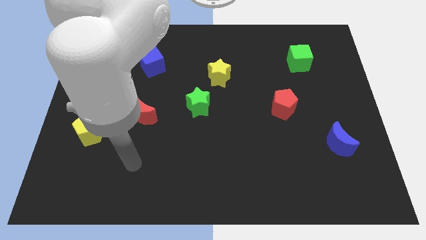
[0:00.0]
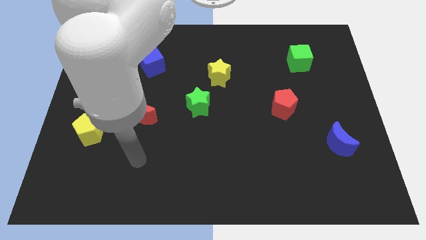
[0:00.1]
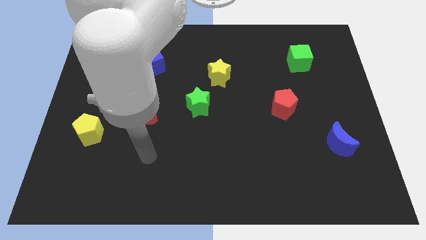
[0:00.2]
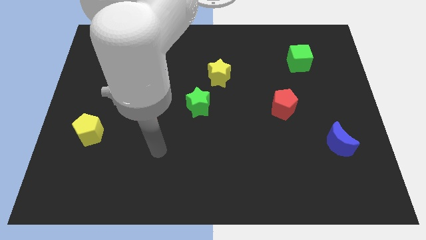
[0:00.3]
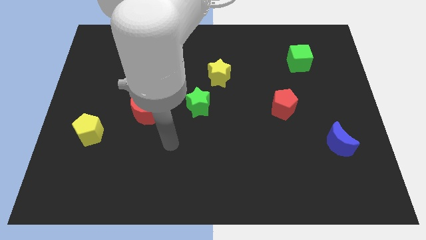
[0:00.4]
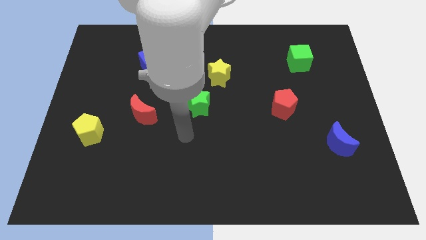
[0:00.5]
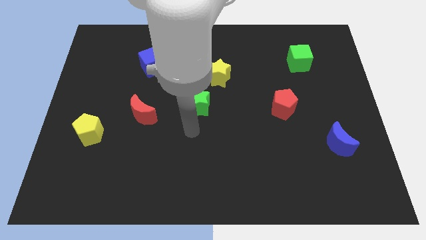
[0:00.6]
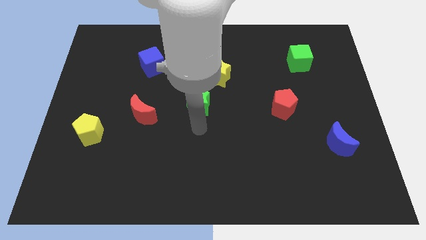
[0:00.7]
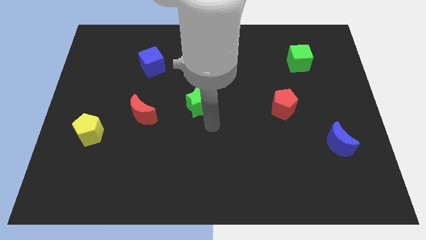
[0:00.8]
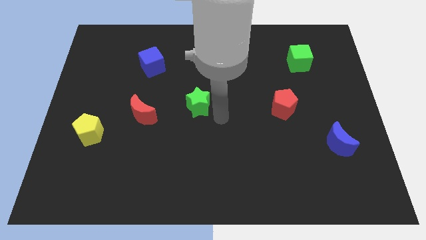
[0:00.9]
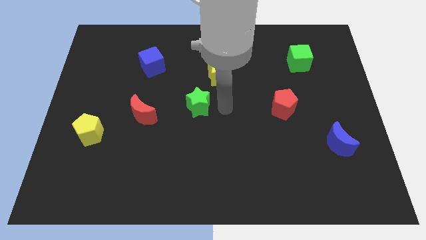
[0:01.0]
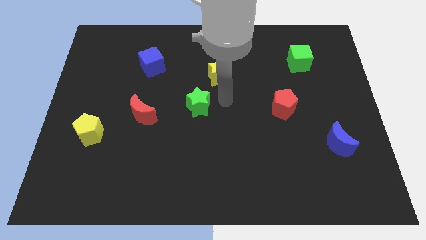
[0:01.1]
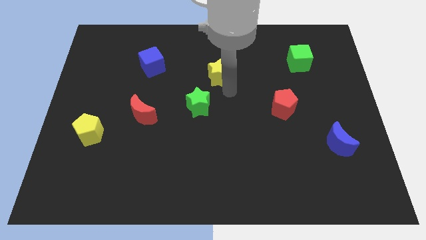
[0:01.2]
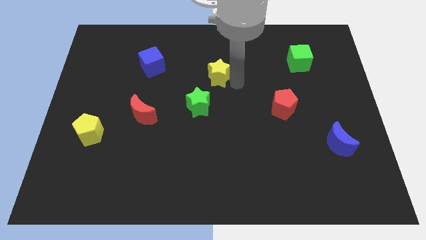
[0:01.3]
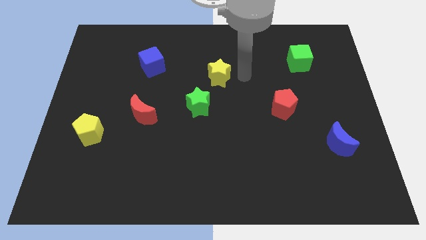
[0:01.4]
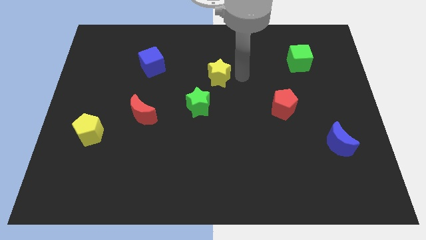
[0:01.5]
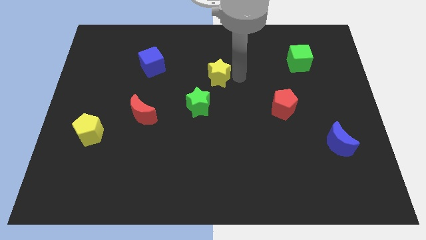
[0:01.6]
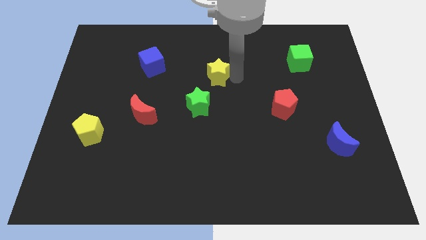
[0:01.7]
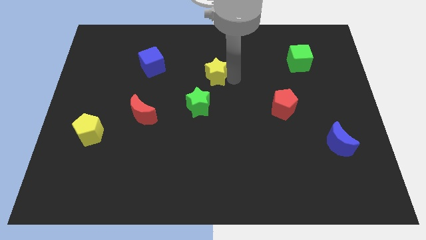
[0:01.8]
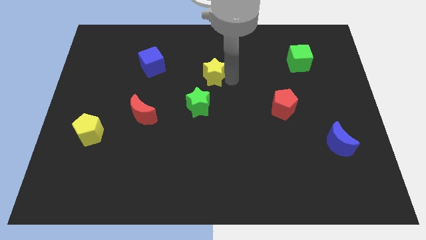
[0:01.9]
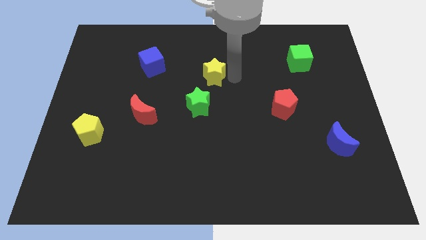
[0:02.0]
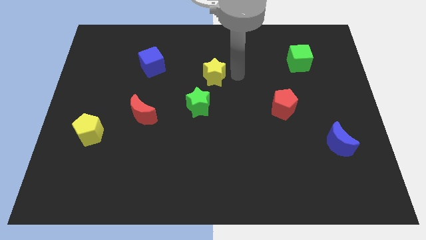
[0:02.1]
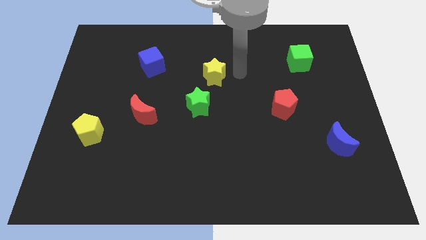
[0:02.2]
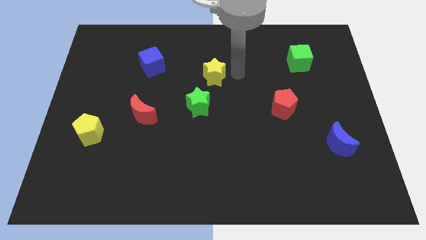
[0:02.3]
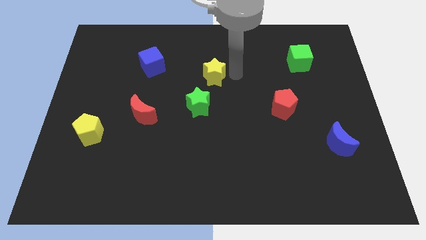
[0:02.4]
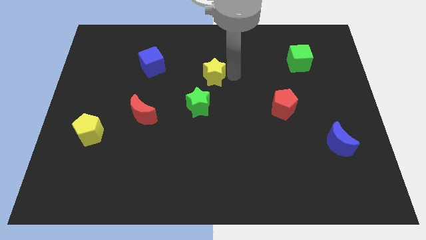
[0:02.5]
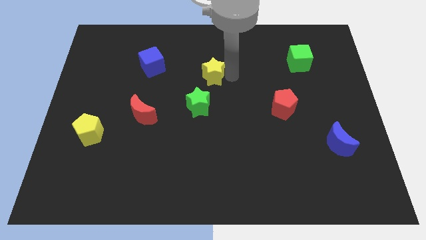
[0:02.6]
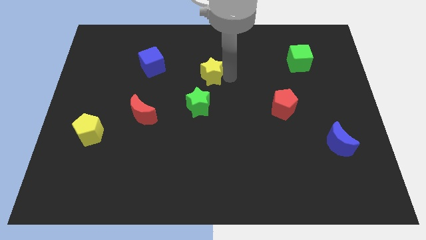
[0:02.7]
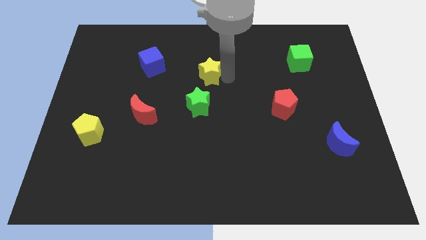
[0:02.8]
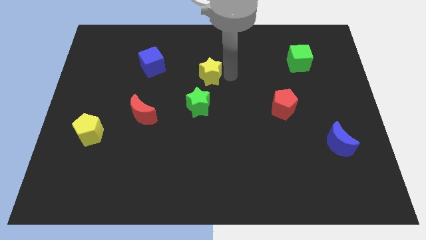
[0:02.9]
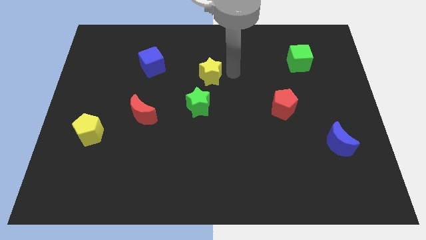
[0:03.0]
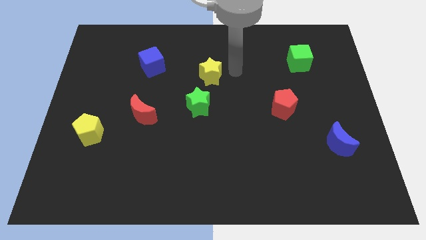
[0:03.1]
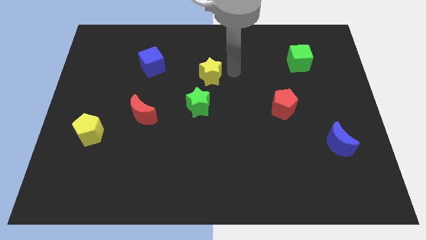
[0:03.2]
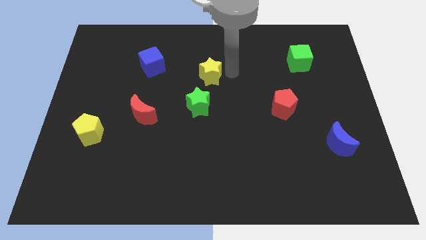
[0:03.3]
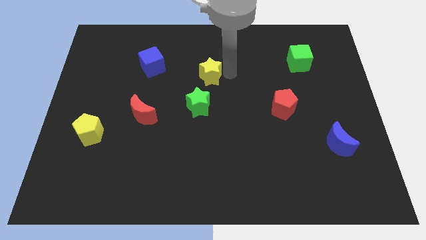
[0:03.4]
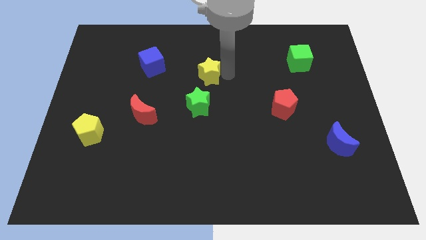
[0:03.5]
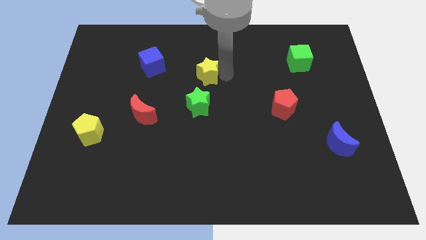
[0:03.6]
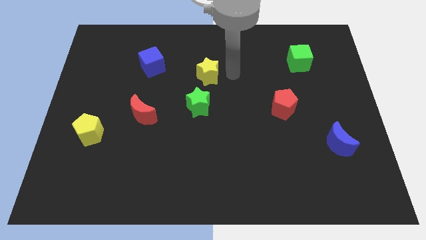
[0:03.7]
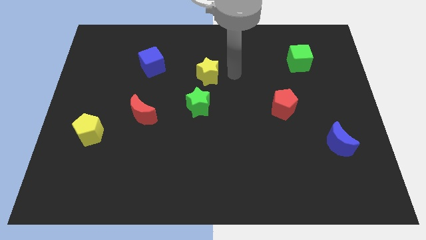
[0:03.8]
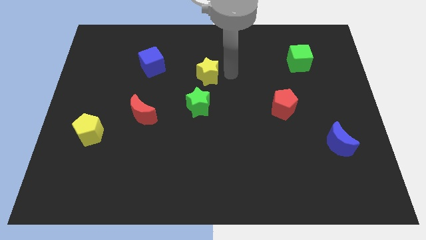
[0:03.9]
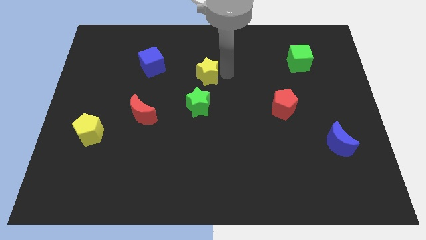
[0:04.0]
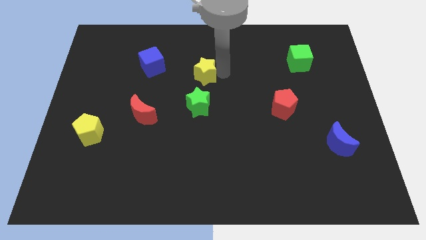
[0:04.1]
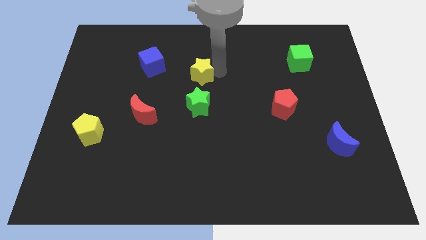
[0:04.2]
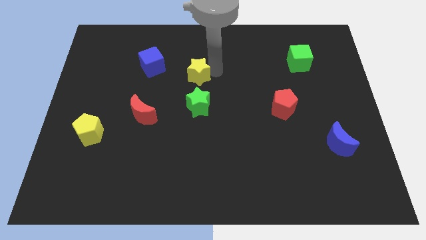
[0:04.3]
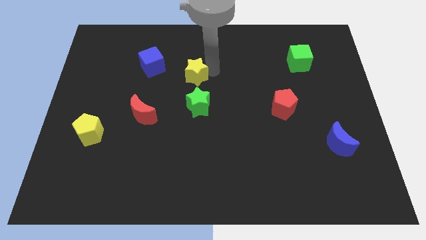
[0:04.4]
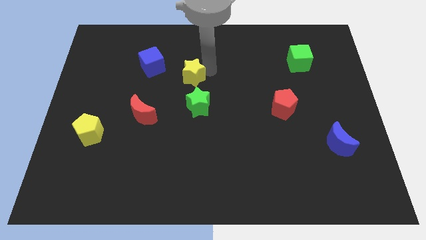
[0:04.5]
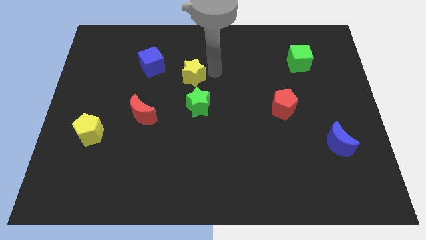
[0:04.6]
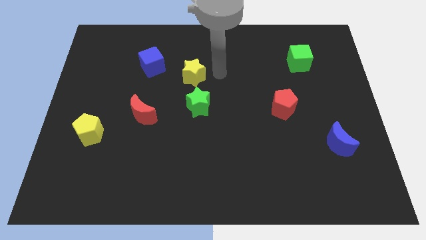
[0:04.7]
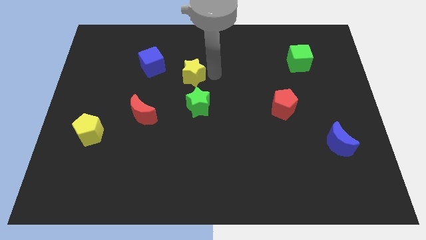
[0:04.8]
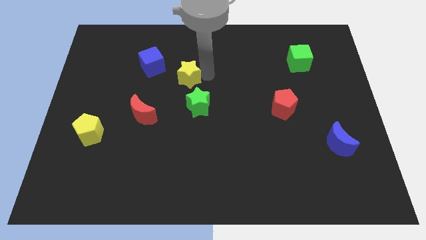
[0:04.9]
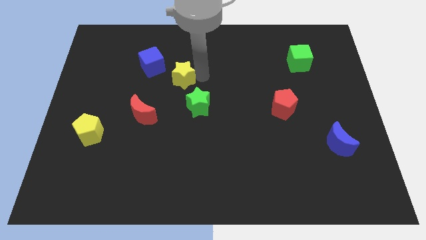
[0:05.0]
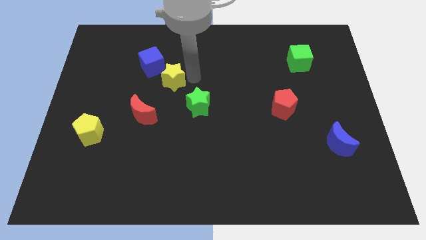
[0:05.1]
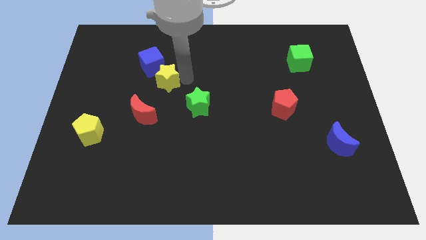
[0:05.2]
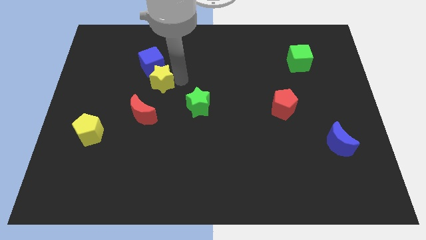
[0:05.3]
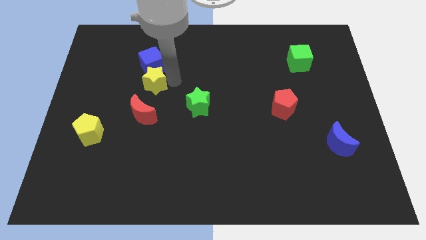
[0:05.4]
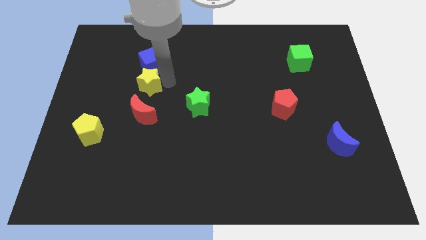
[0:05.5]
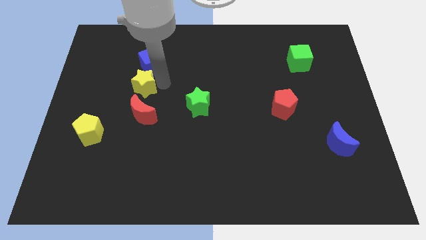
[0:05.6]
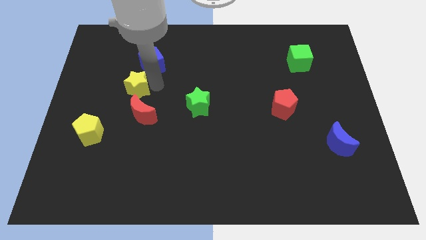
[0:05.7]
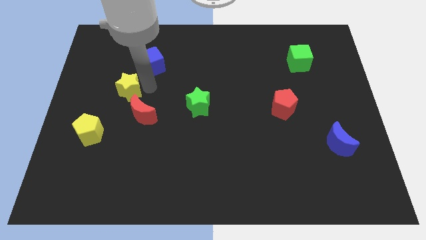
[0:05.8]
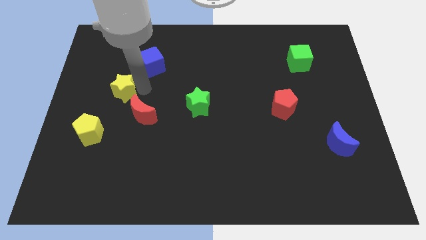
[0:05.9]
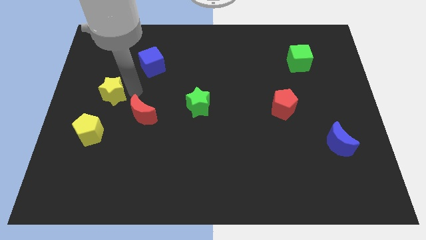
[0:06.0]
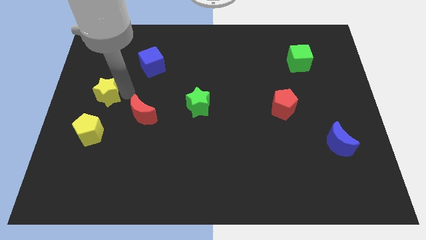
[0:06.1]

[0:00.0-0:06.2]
put the yellow star to the left side of the board

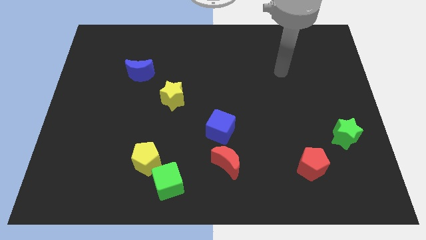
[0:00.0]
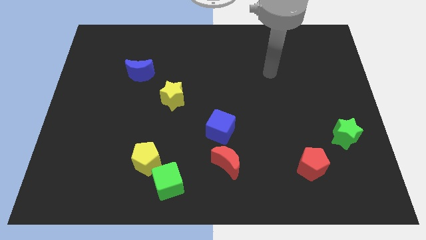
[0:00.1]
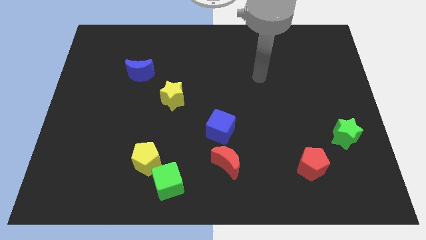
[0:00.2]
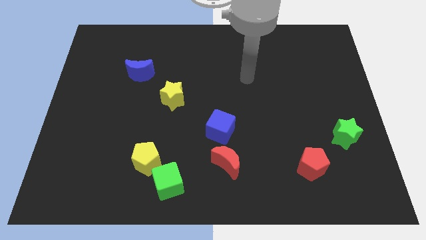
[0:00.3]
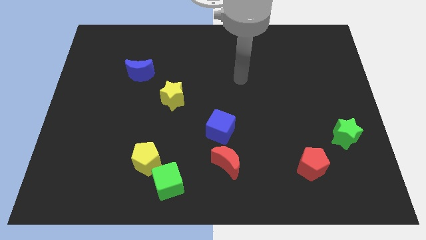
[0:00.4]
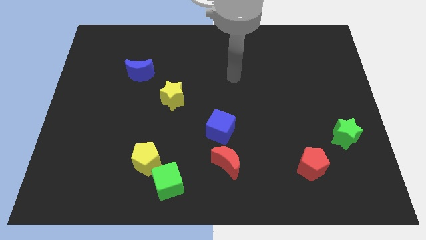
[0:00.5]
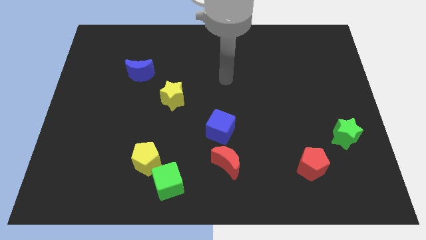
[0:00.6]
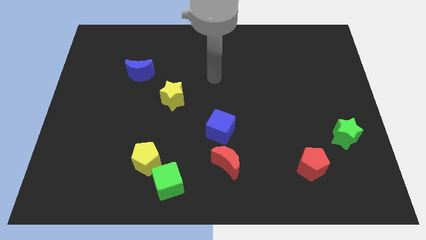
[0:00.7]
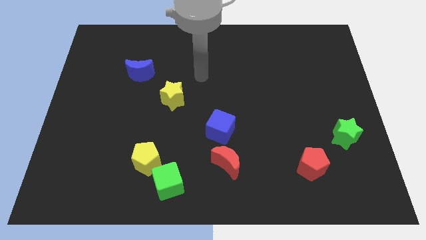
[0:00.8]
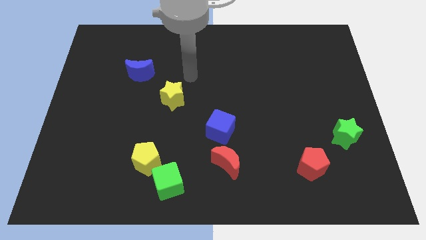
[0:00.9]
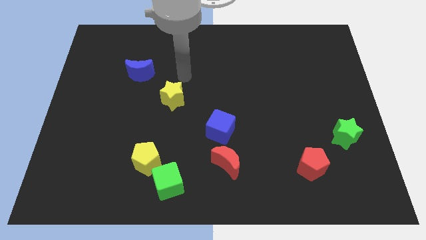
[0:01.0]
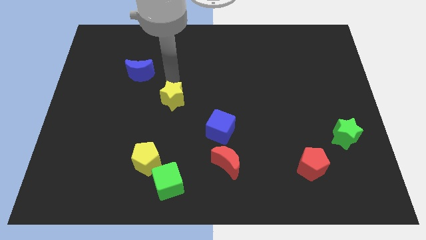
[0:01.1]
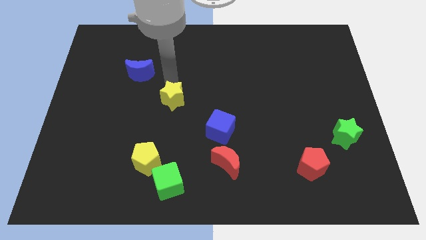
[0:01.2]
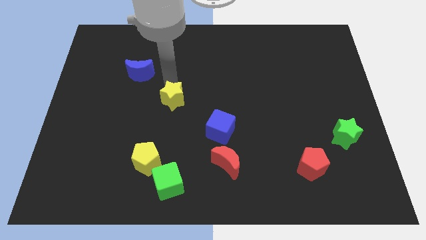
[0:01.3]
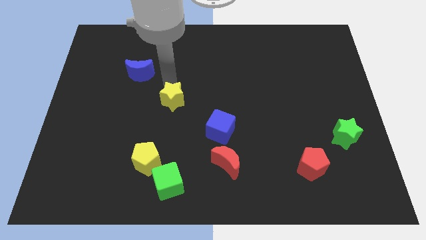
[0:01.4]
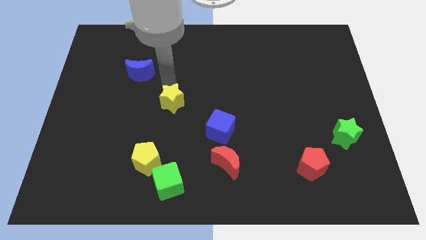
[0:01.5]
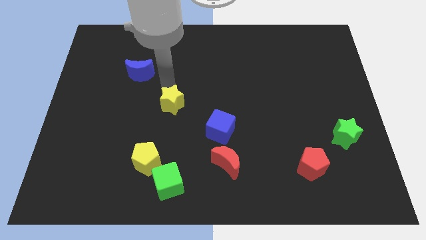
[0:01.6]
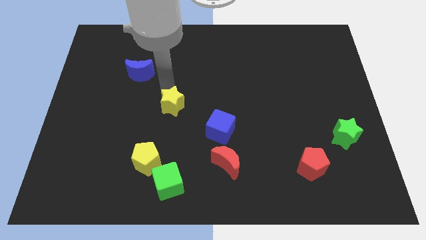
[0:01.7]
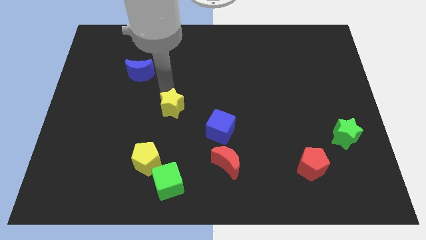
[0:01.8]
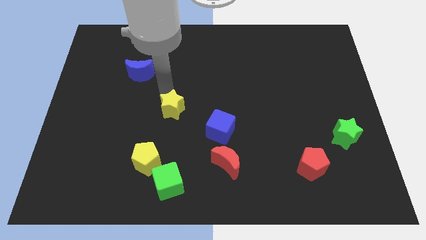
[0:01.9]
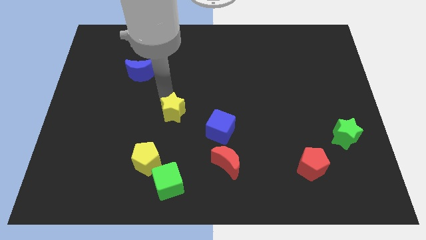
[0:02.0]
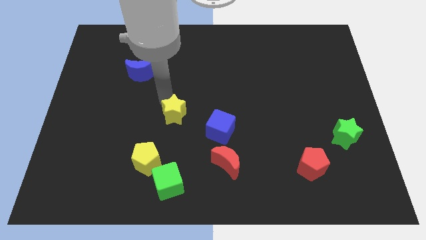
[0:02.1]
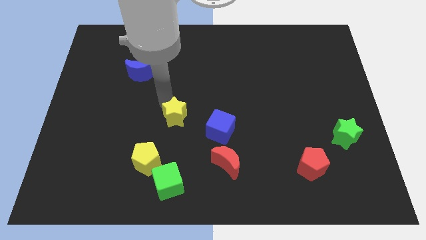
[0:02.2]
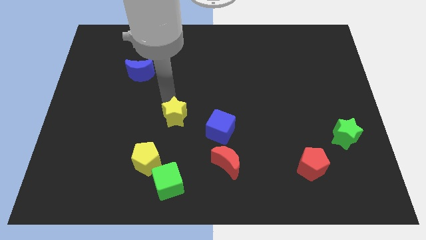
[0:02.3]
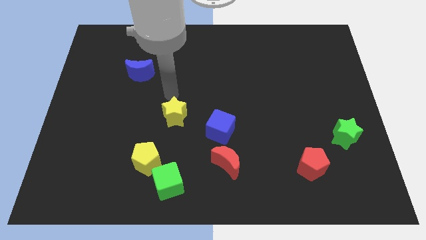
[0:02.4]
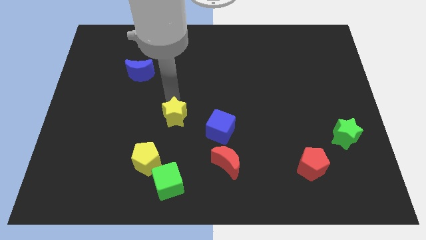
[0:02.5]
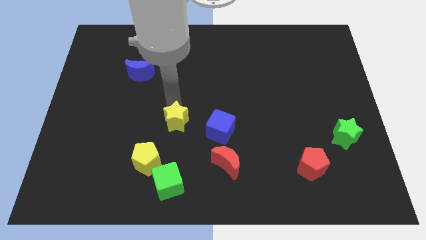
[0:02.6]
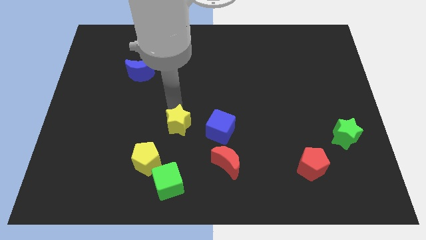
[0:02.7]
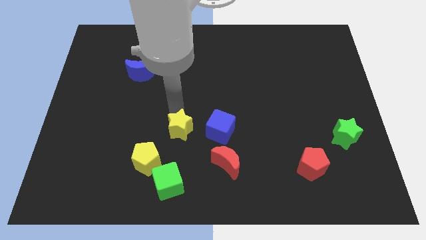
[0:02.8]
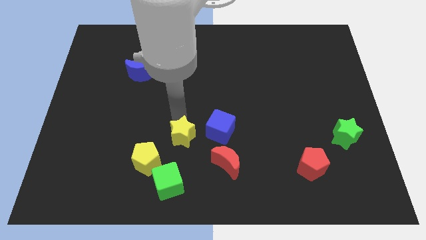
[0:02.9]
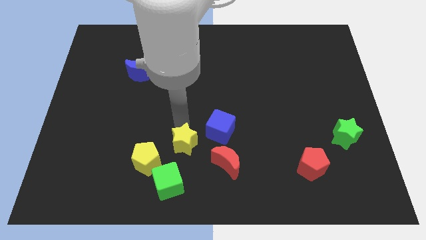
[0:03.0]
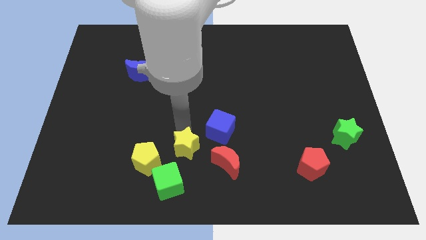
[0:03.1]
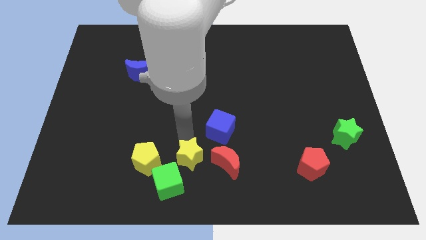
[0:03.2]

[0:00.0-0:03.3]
slide the yellow star to the bottom
